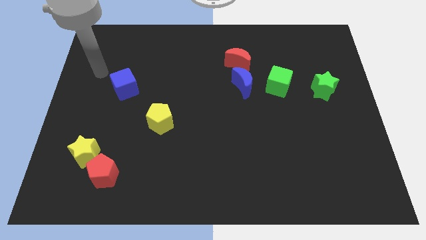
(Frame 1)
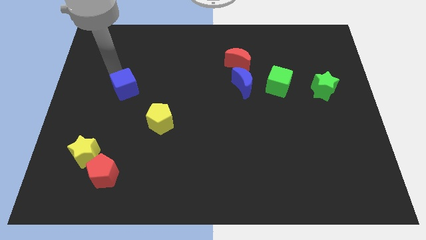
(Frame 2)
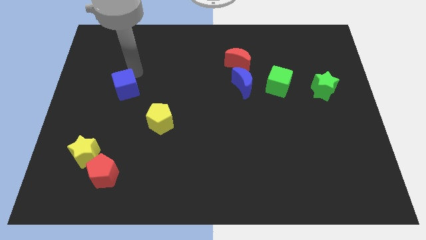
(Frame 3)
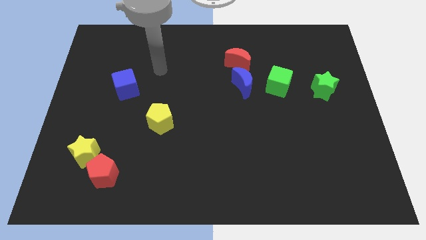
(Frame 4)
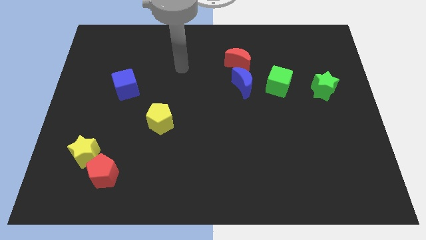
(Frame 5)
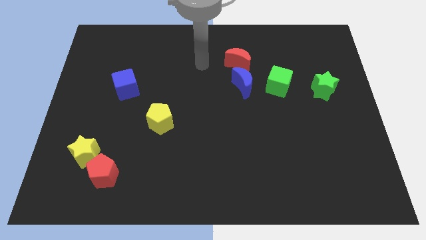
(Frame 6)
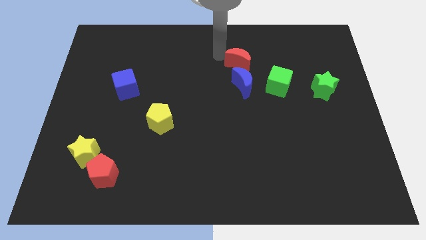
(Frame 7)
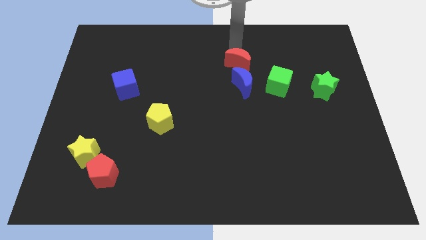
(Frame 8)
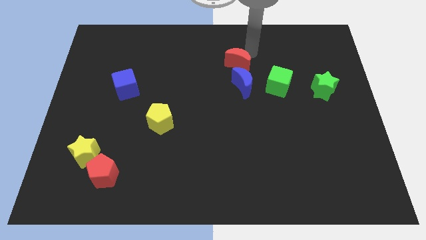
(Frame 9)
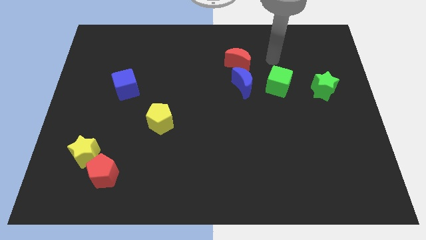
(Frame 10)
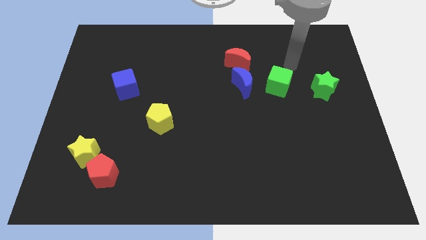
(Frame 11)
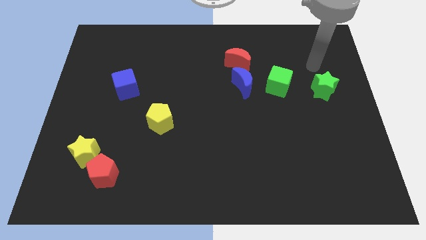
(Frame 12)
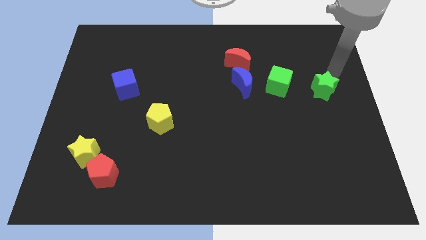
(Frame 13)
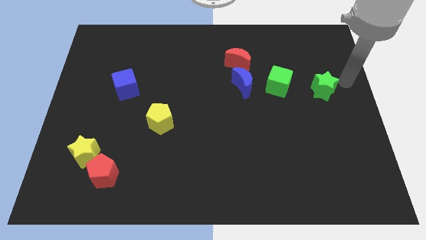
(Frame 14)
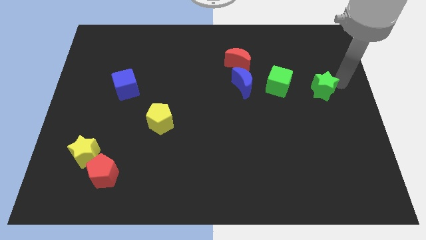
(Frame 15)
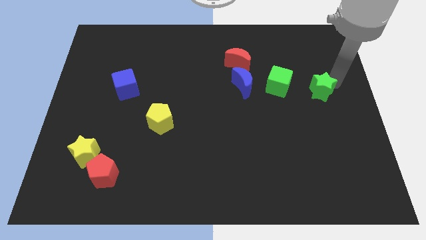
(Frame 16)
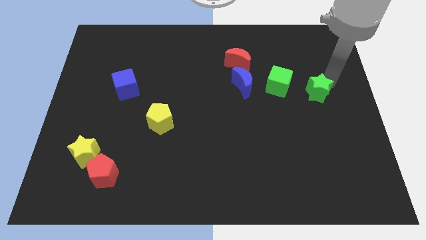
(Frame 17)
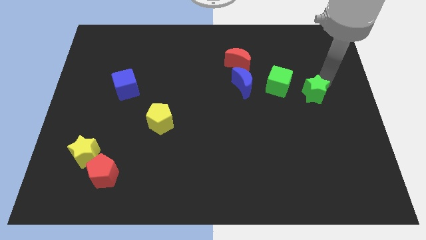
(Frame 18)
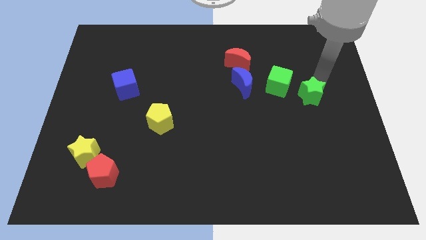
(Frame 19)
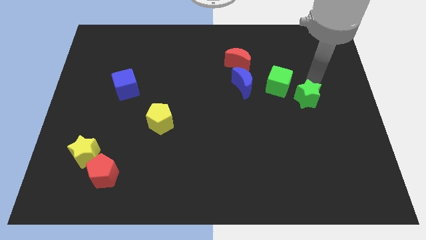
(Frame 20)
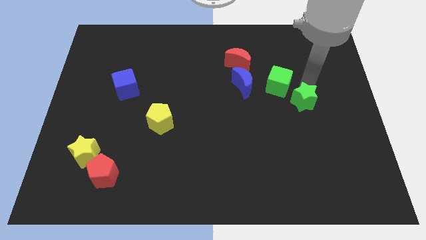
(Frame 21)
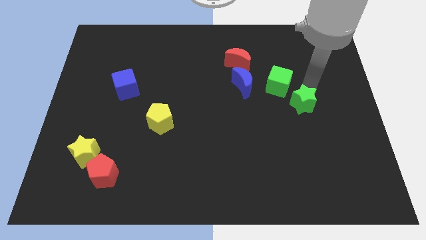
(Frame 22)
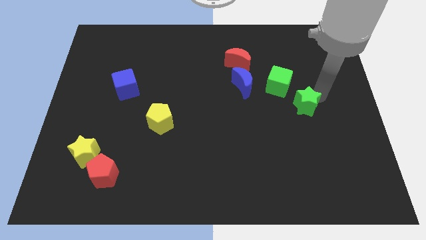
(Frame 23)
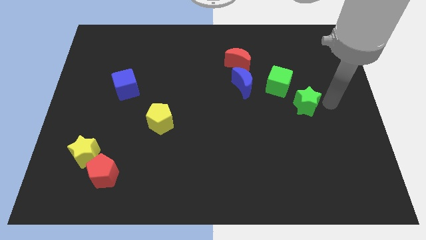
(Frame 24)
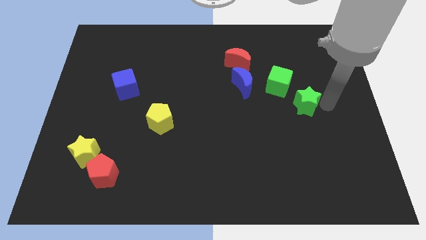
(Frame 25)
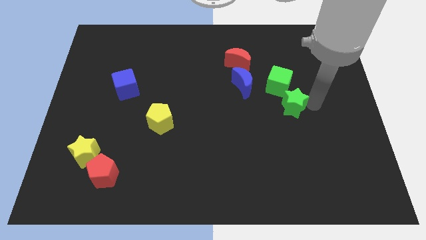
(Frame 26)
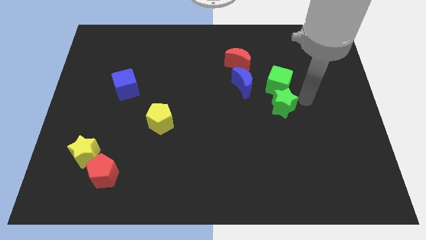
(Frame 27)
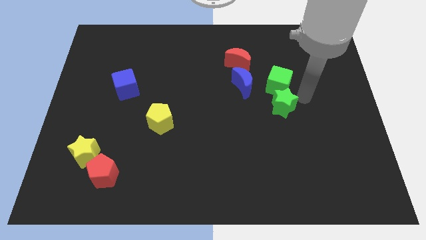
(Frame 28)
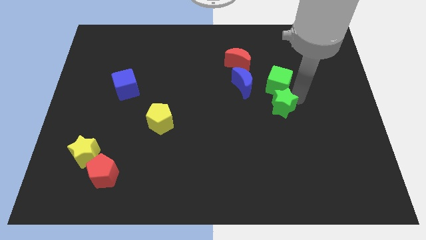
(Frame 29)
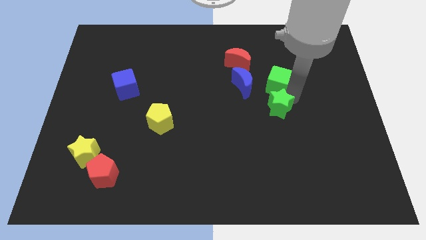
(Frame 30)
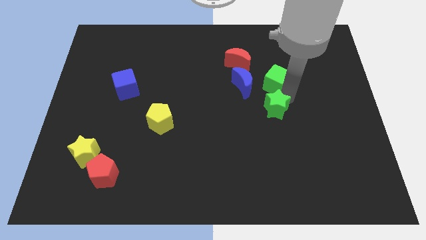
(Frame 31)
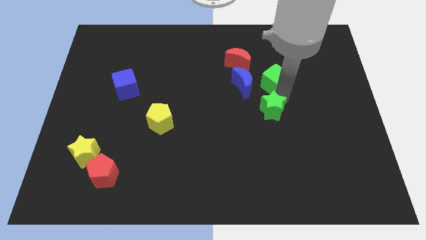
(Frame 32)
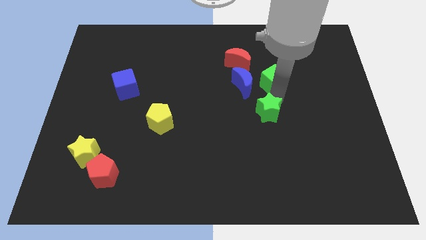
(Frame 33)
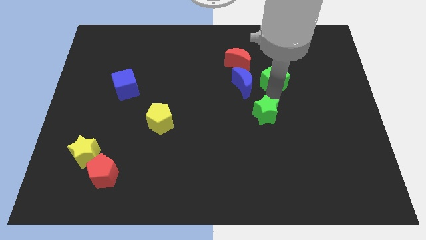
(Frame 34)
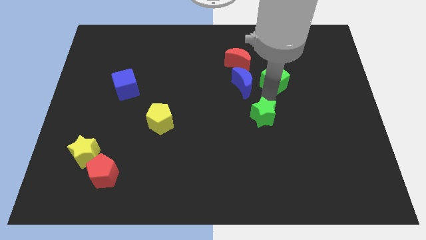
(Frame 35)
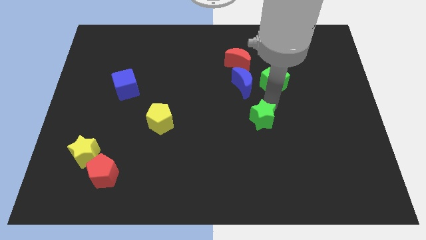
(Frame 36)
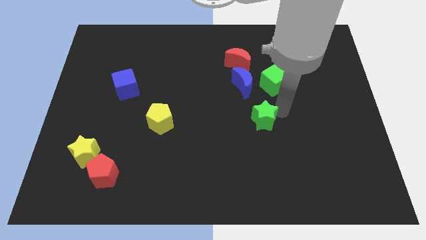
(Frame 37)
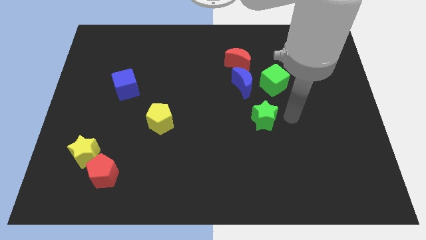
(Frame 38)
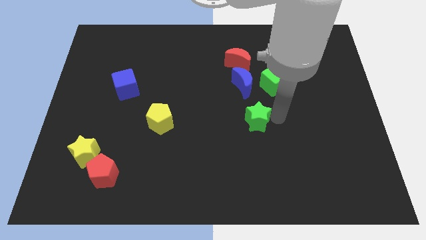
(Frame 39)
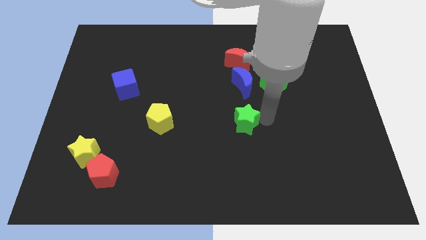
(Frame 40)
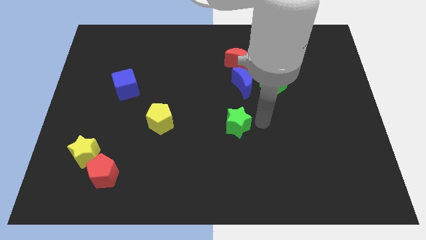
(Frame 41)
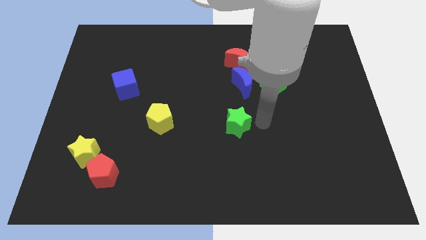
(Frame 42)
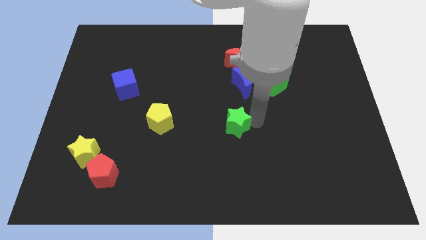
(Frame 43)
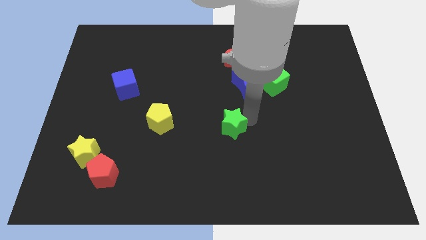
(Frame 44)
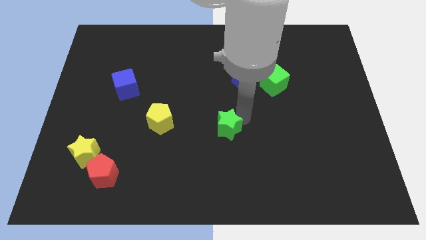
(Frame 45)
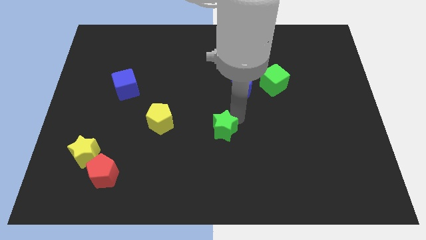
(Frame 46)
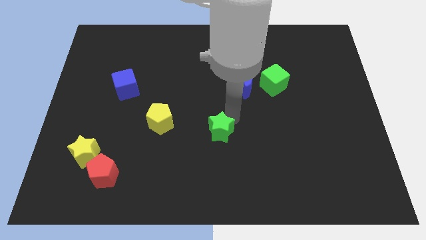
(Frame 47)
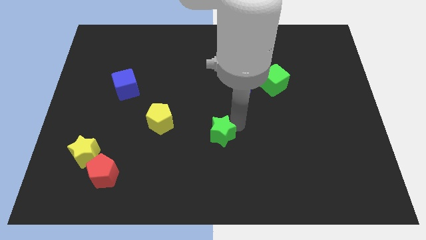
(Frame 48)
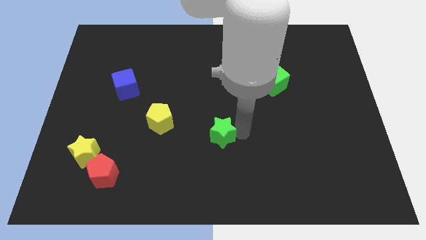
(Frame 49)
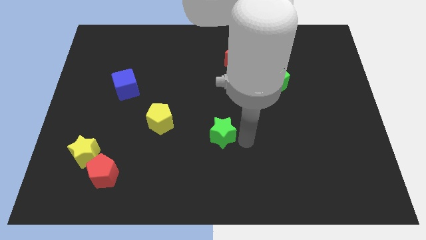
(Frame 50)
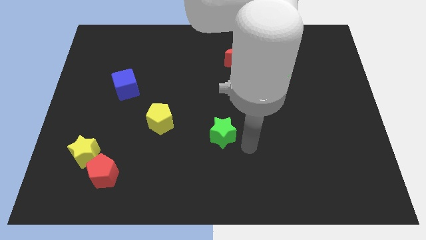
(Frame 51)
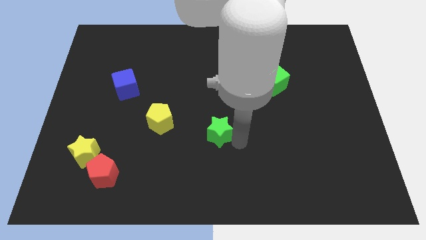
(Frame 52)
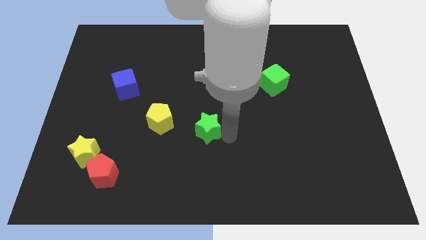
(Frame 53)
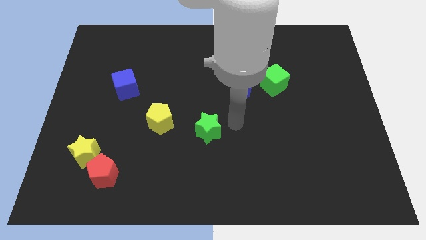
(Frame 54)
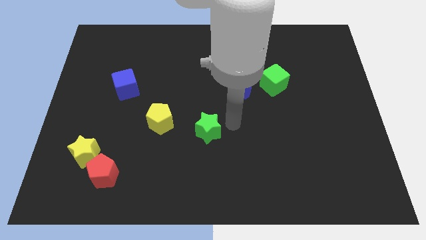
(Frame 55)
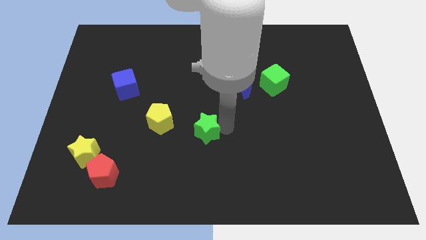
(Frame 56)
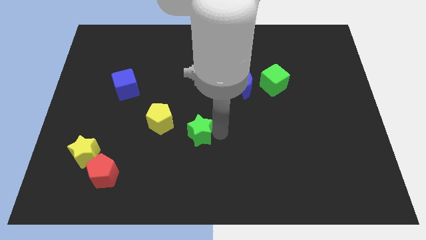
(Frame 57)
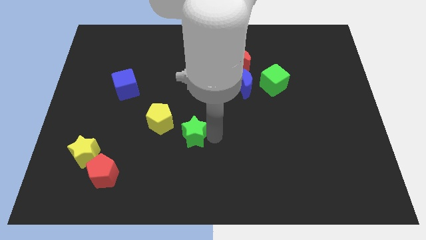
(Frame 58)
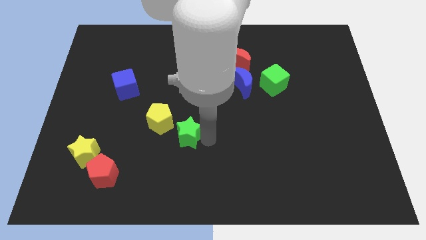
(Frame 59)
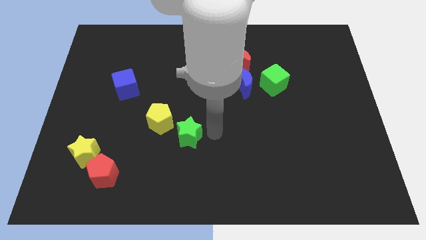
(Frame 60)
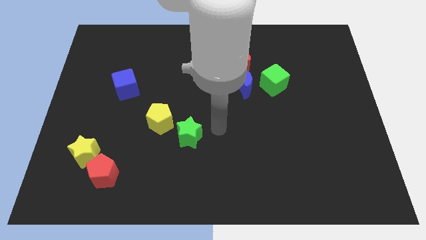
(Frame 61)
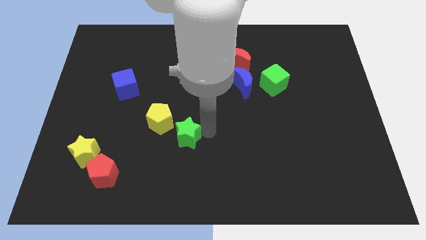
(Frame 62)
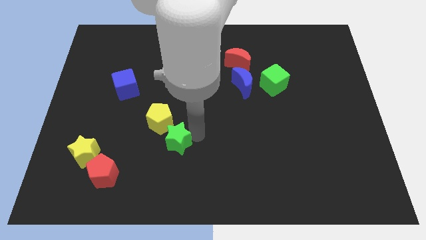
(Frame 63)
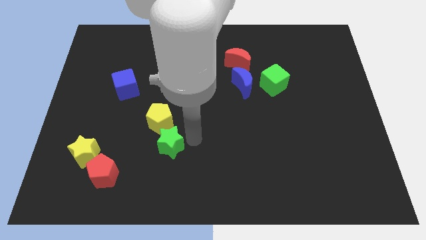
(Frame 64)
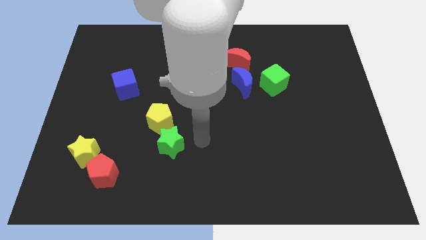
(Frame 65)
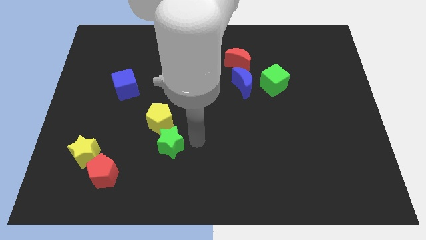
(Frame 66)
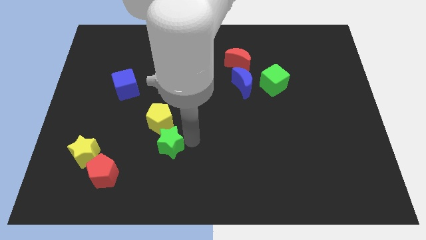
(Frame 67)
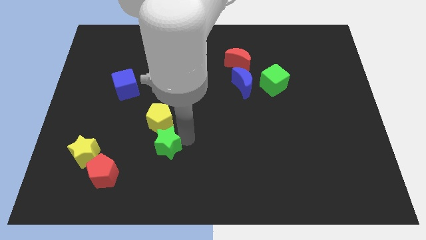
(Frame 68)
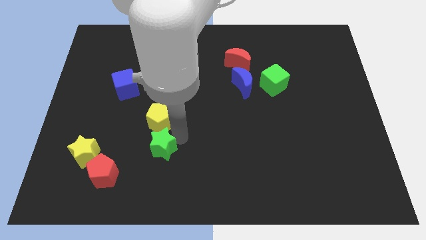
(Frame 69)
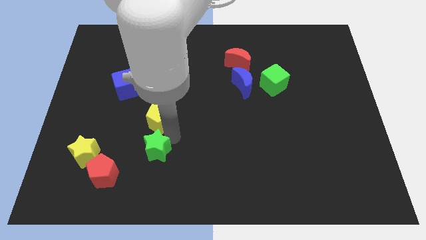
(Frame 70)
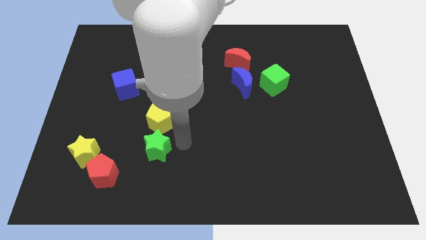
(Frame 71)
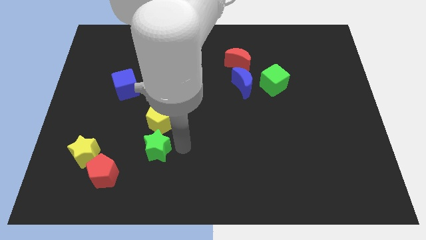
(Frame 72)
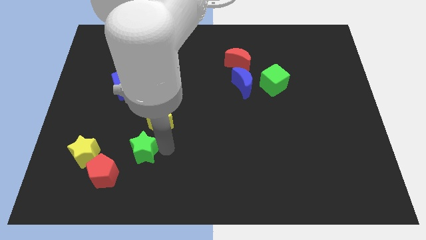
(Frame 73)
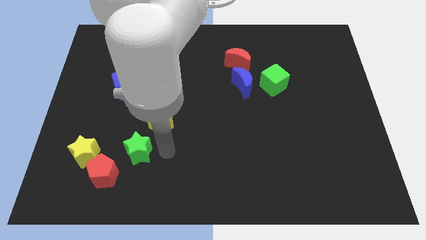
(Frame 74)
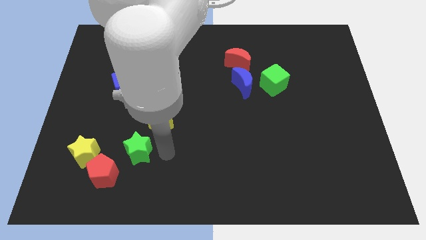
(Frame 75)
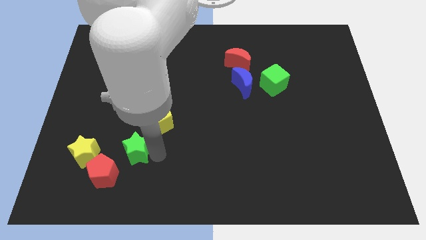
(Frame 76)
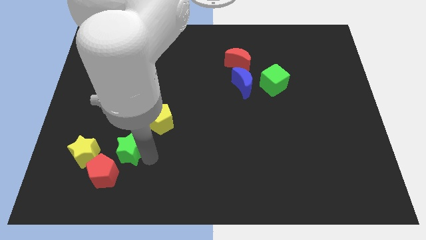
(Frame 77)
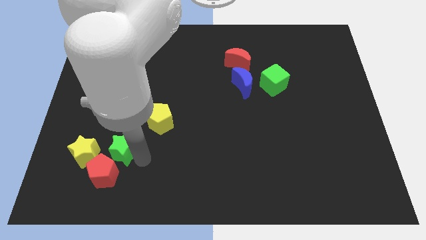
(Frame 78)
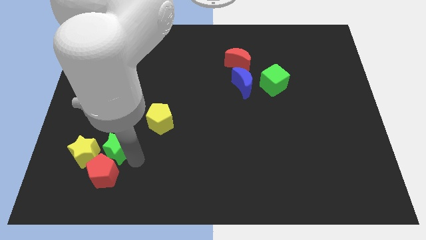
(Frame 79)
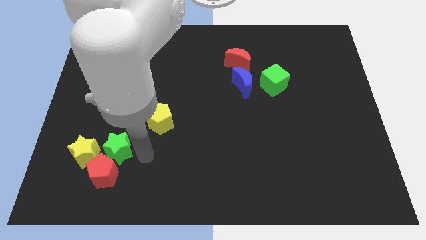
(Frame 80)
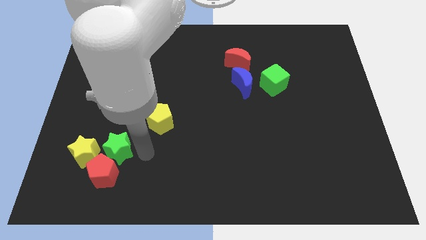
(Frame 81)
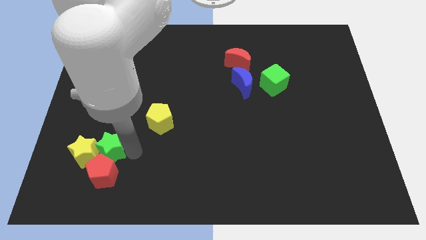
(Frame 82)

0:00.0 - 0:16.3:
push the green star close to the yellow star
